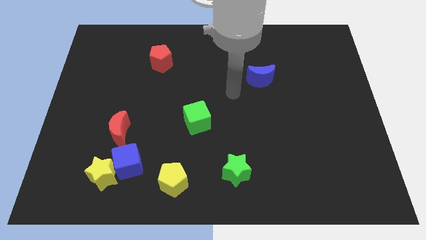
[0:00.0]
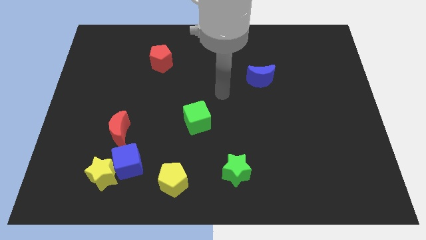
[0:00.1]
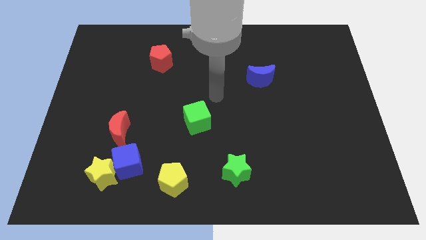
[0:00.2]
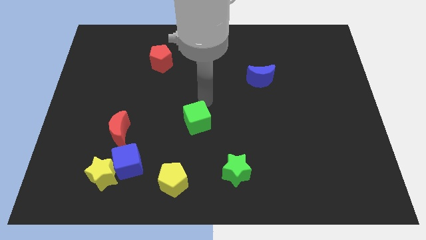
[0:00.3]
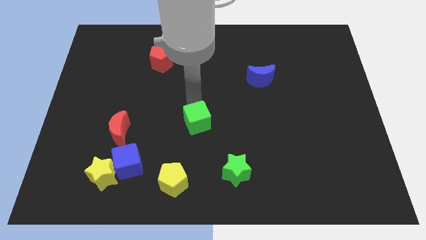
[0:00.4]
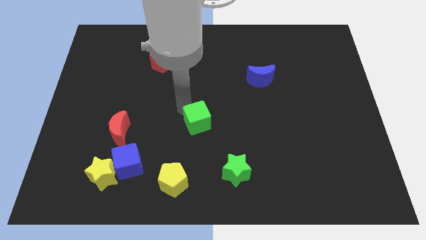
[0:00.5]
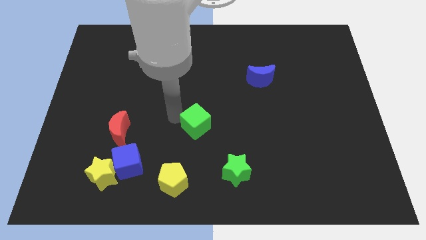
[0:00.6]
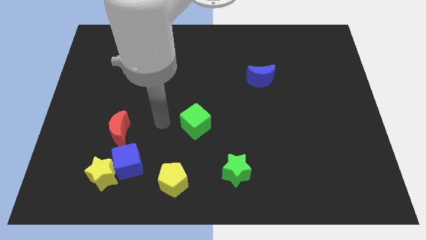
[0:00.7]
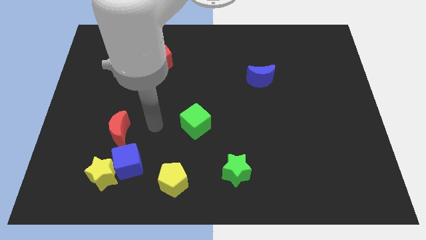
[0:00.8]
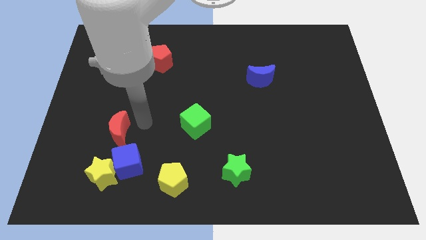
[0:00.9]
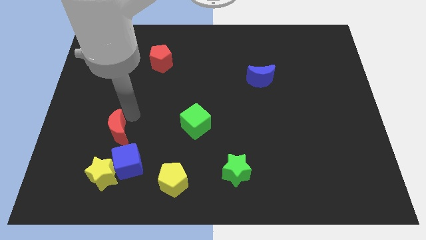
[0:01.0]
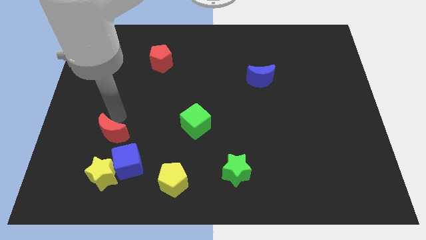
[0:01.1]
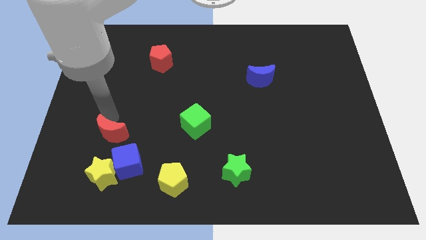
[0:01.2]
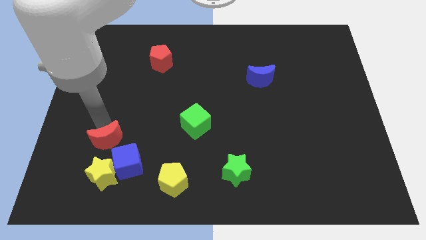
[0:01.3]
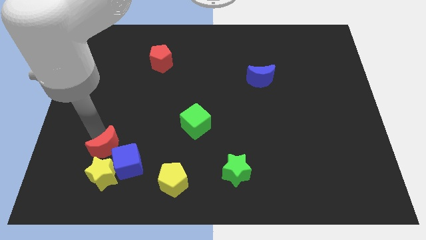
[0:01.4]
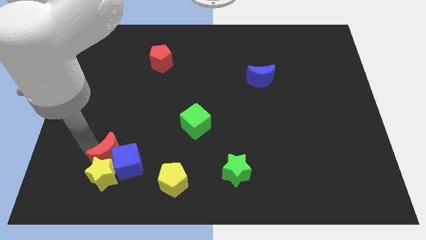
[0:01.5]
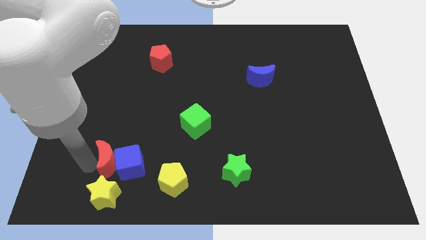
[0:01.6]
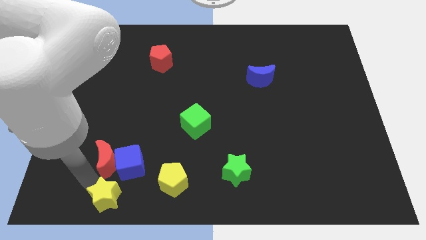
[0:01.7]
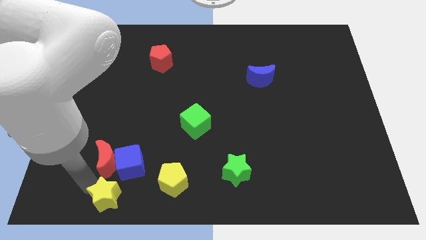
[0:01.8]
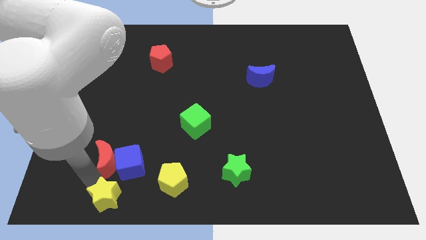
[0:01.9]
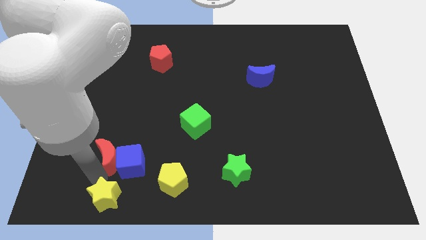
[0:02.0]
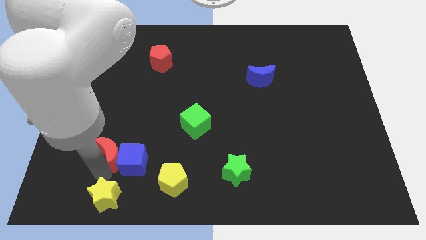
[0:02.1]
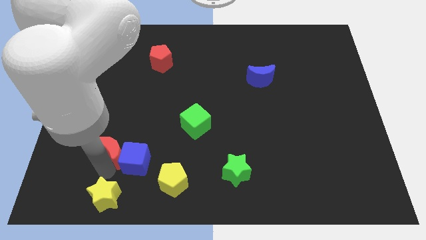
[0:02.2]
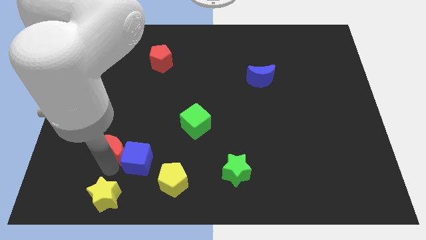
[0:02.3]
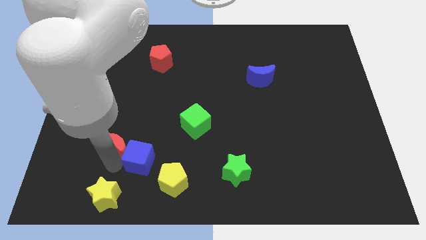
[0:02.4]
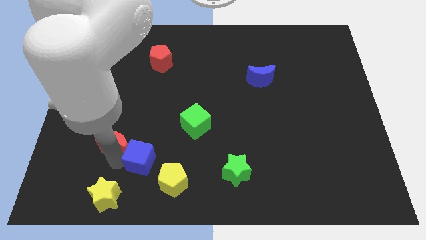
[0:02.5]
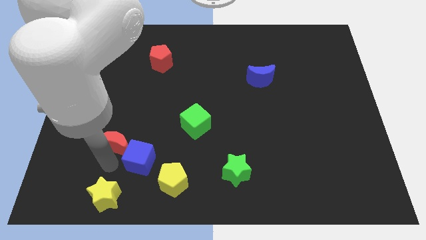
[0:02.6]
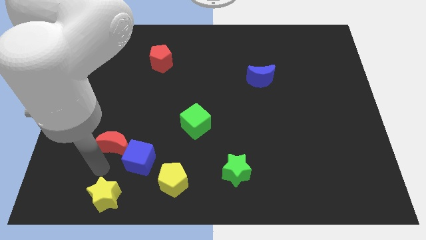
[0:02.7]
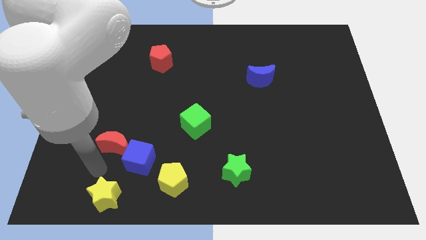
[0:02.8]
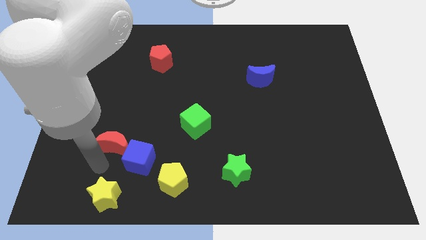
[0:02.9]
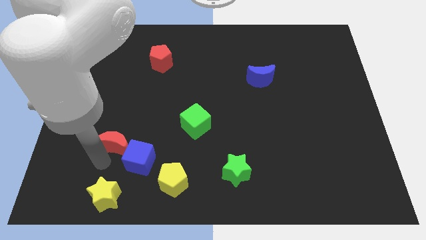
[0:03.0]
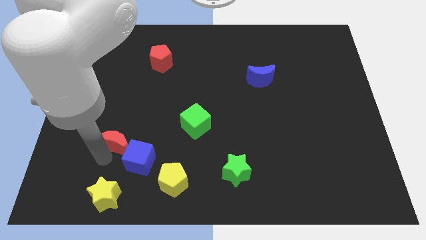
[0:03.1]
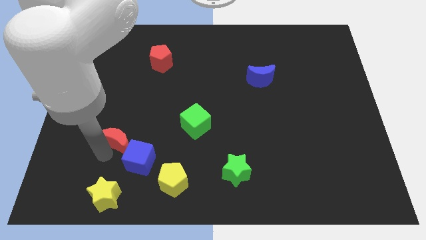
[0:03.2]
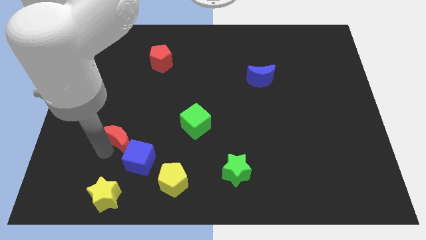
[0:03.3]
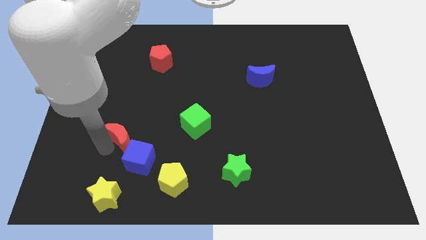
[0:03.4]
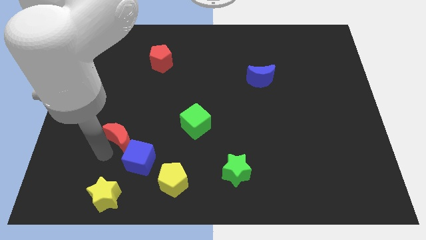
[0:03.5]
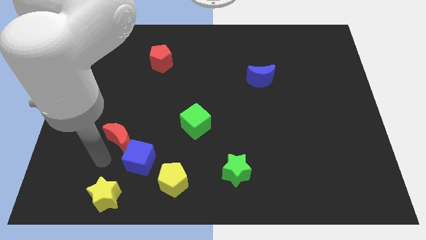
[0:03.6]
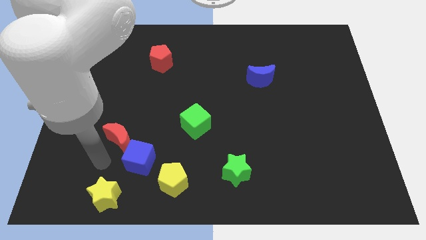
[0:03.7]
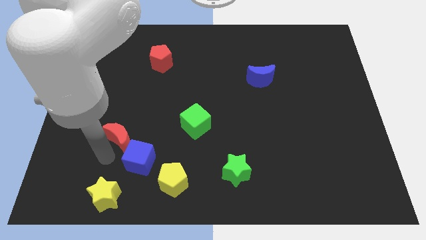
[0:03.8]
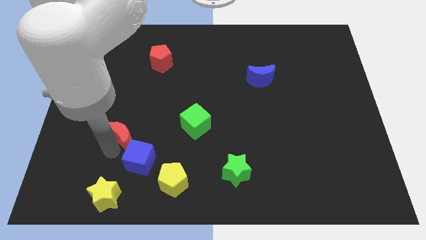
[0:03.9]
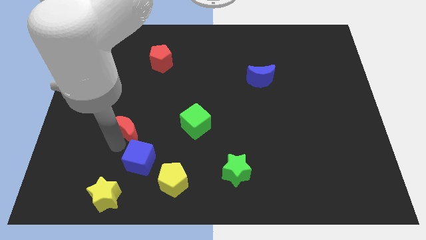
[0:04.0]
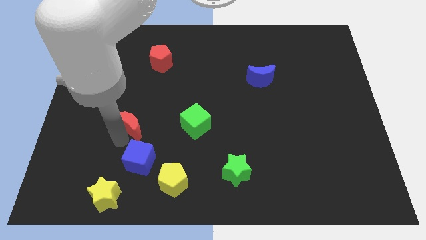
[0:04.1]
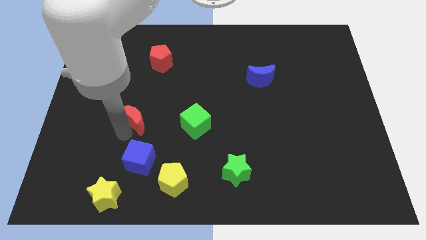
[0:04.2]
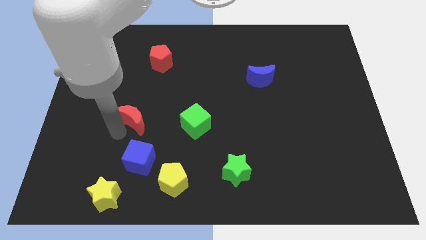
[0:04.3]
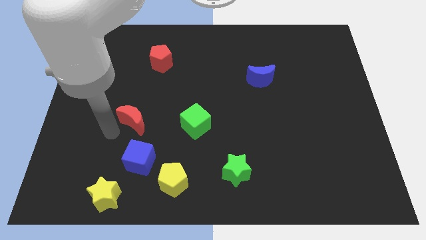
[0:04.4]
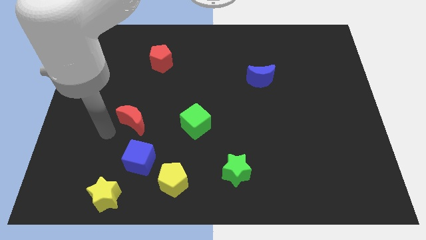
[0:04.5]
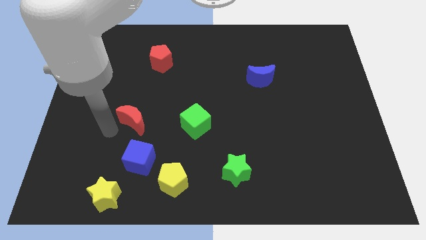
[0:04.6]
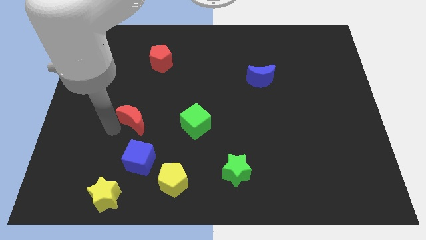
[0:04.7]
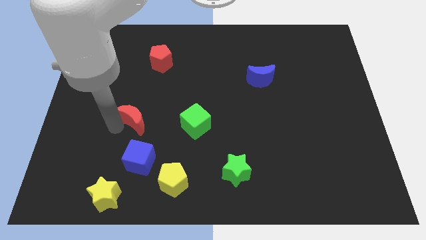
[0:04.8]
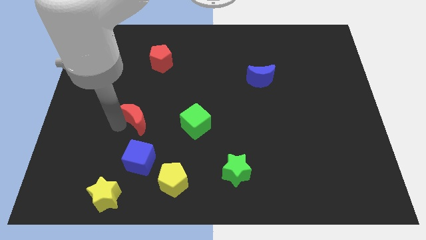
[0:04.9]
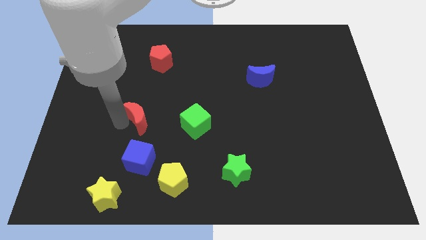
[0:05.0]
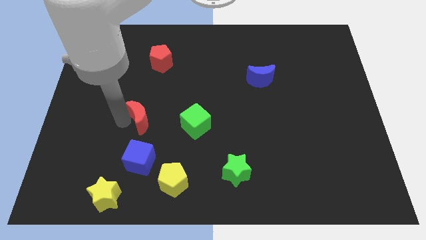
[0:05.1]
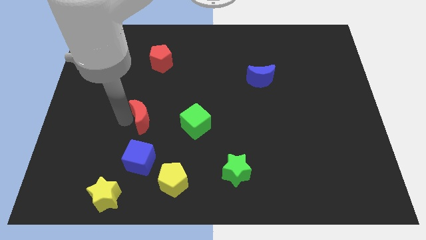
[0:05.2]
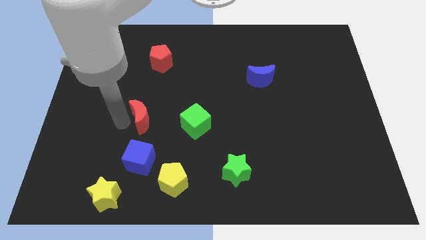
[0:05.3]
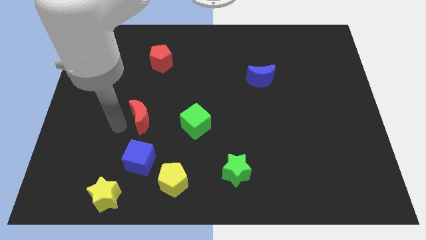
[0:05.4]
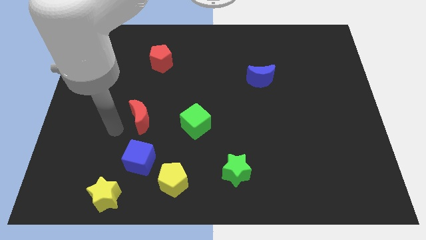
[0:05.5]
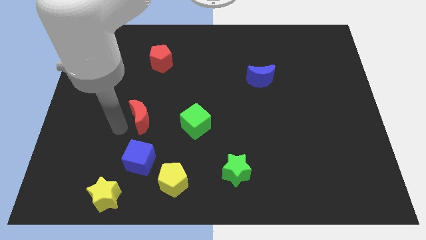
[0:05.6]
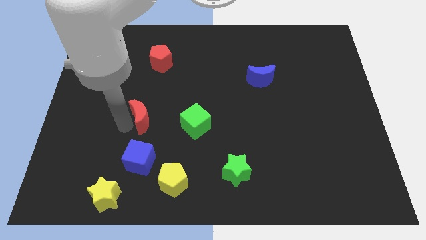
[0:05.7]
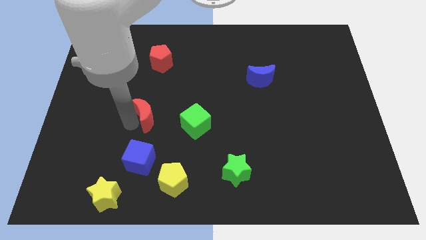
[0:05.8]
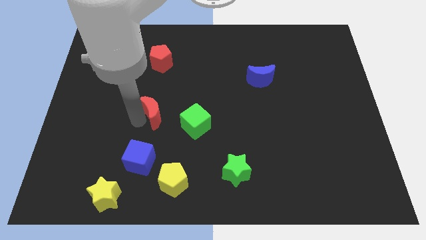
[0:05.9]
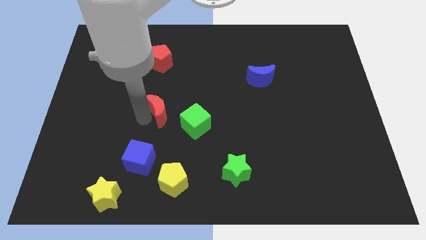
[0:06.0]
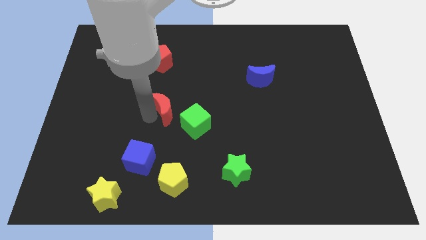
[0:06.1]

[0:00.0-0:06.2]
slide the red moon to the center
